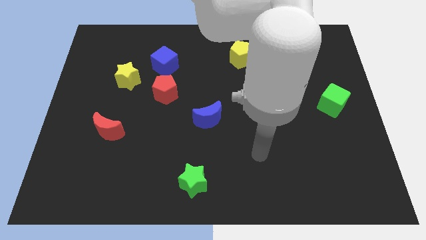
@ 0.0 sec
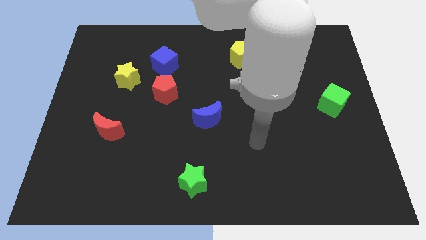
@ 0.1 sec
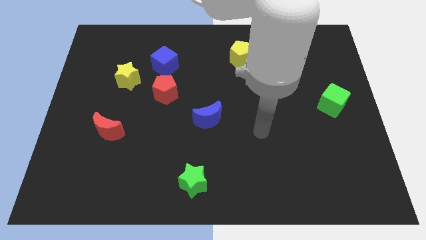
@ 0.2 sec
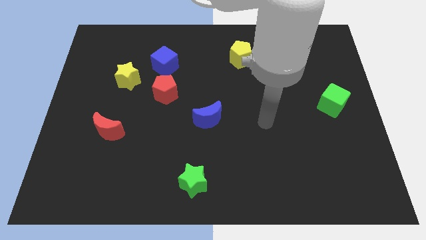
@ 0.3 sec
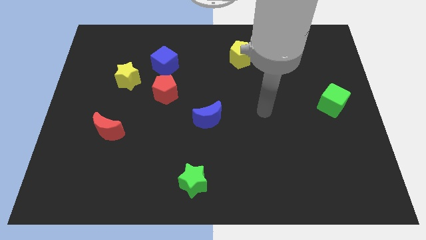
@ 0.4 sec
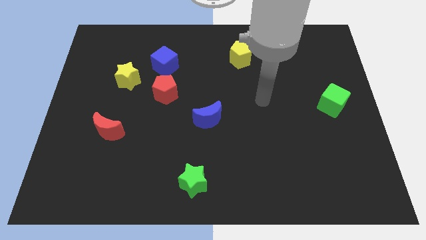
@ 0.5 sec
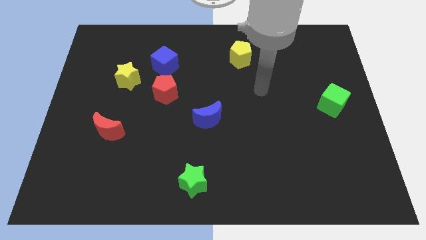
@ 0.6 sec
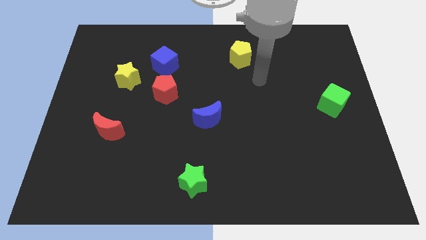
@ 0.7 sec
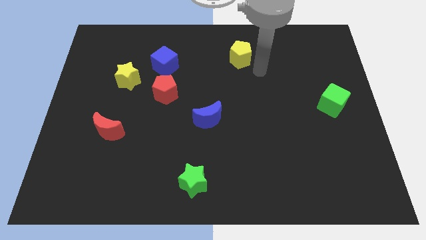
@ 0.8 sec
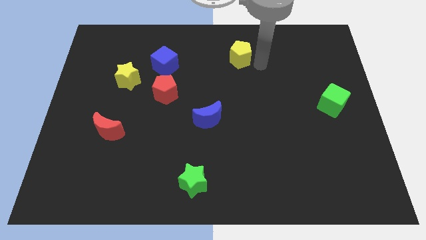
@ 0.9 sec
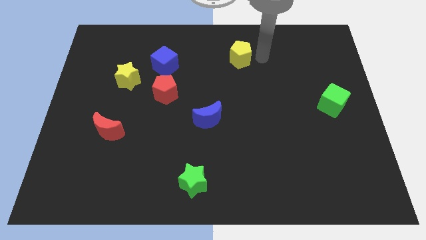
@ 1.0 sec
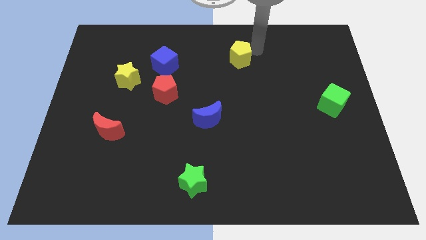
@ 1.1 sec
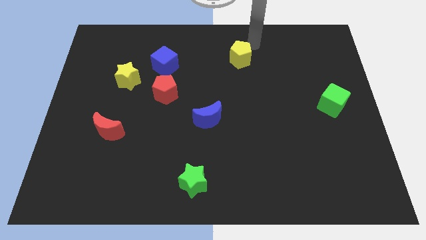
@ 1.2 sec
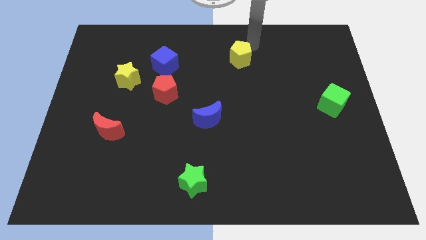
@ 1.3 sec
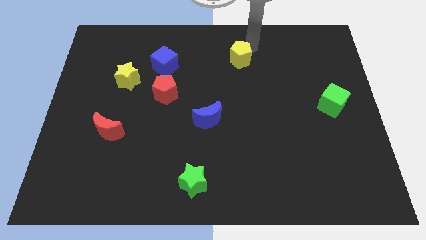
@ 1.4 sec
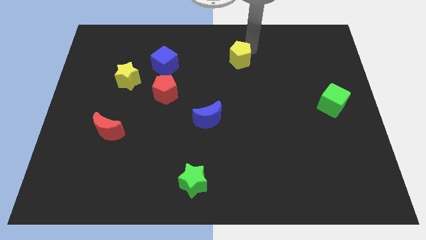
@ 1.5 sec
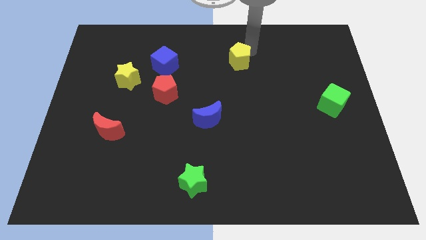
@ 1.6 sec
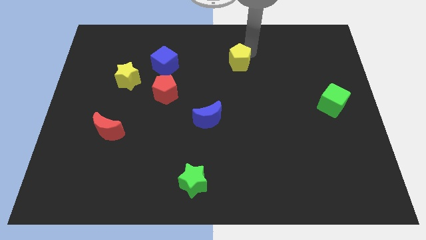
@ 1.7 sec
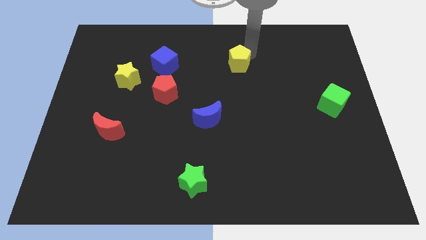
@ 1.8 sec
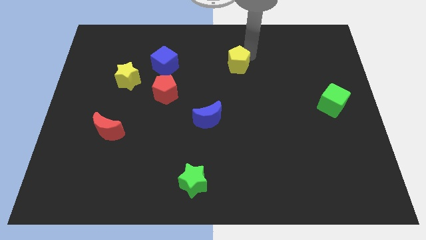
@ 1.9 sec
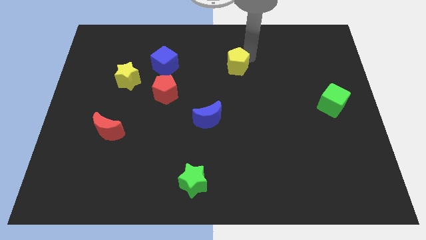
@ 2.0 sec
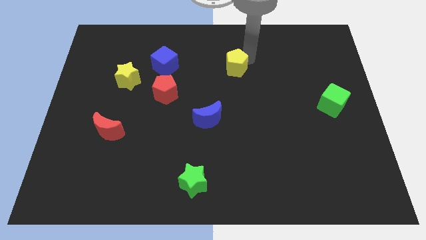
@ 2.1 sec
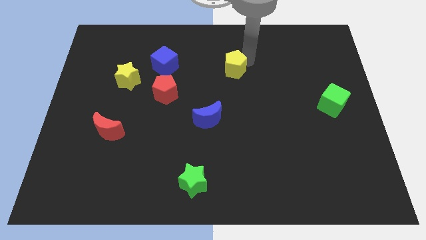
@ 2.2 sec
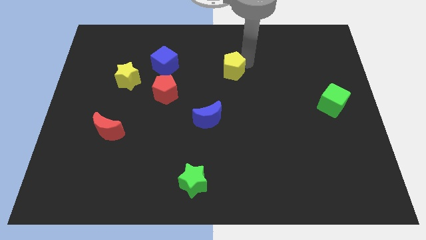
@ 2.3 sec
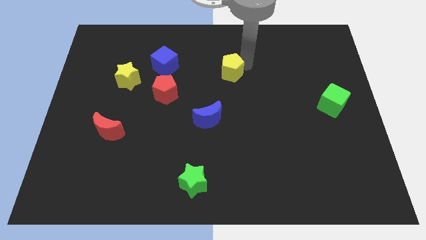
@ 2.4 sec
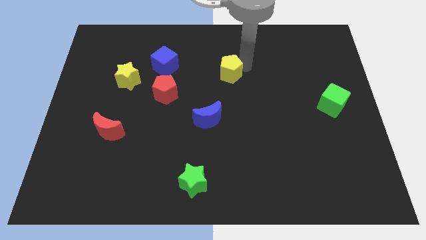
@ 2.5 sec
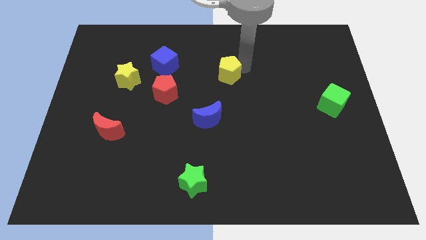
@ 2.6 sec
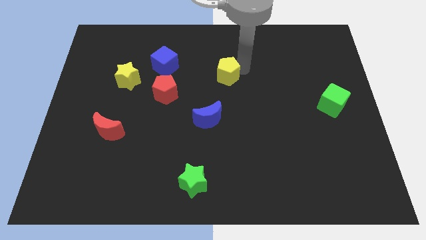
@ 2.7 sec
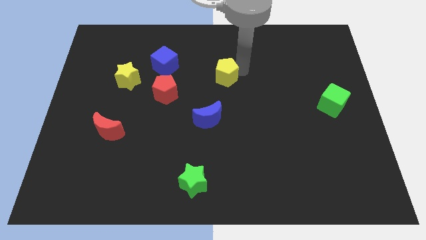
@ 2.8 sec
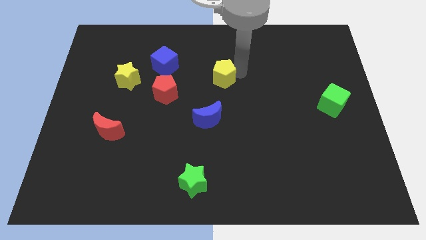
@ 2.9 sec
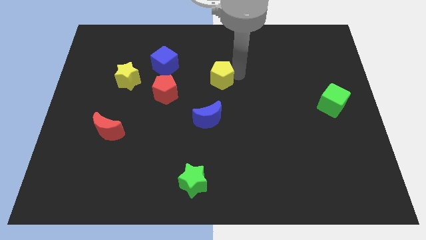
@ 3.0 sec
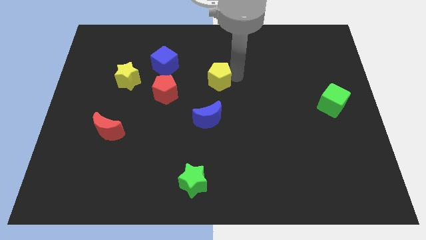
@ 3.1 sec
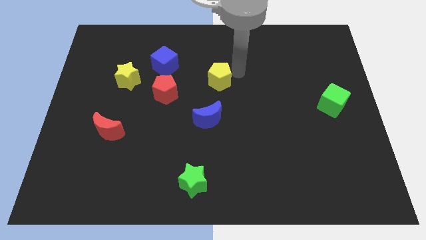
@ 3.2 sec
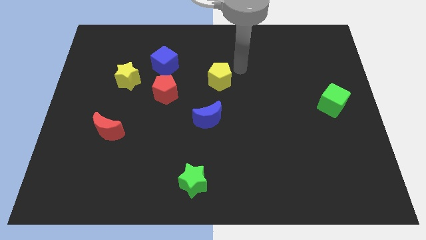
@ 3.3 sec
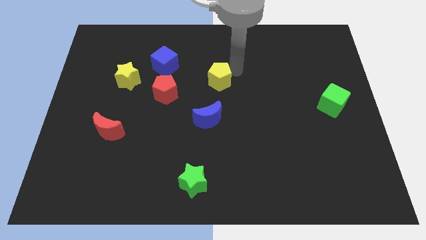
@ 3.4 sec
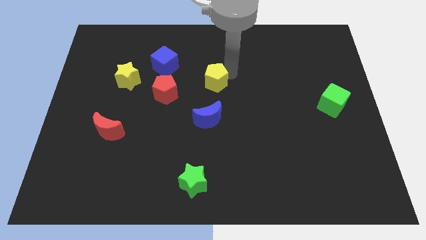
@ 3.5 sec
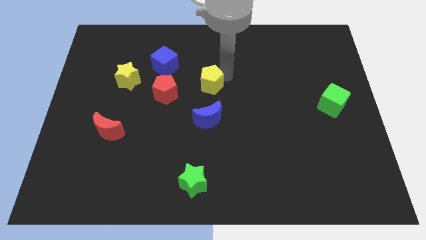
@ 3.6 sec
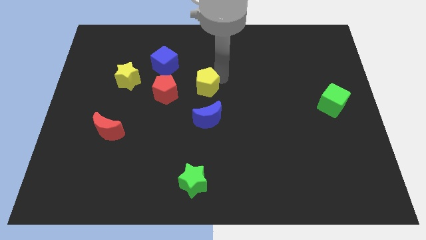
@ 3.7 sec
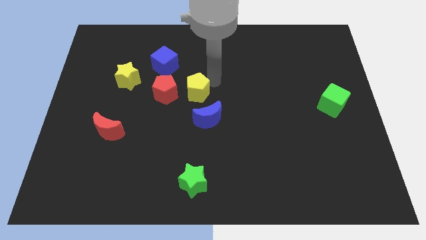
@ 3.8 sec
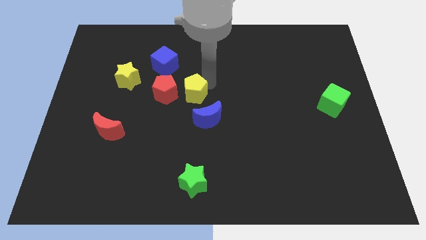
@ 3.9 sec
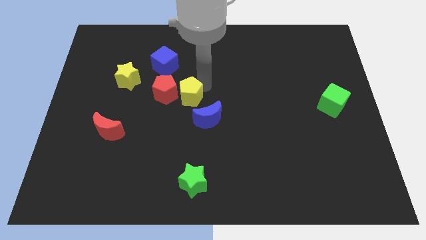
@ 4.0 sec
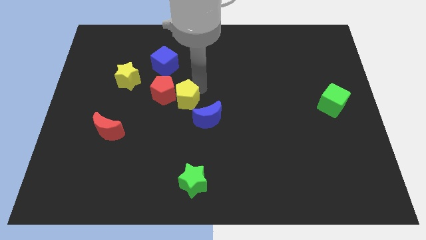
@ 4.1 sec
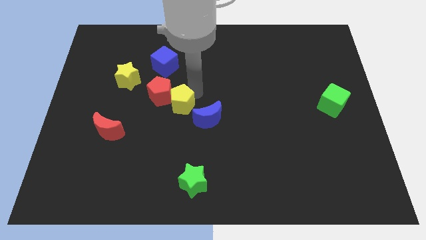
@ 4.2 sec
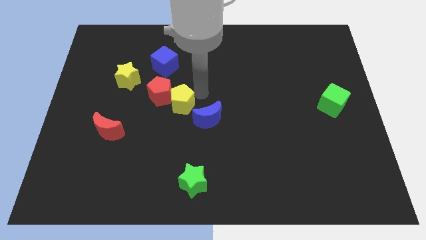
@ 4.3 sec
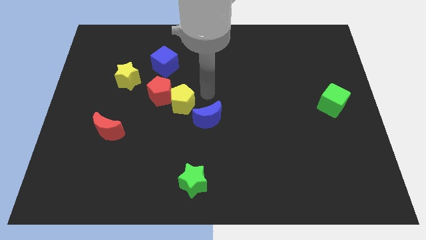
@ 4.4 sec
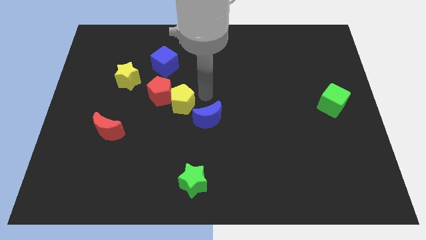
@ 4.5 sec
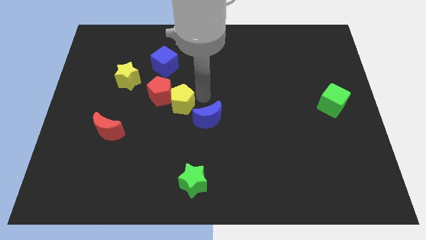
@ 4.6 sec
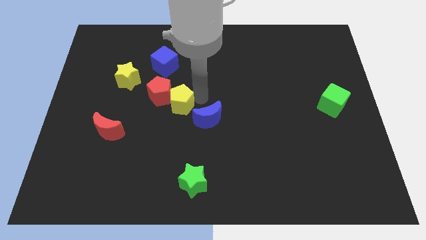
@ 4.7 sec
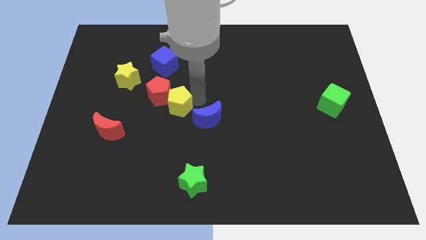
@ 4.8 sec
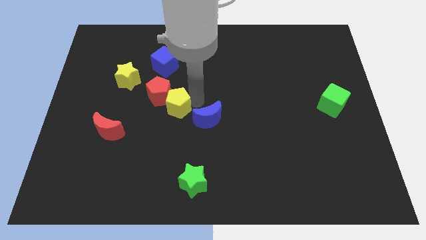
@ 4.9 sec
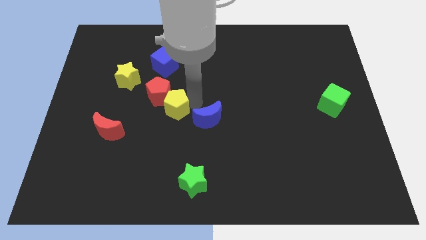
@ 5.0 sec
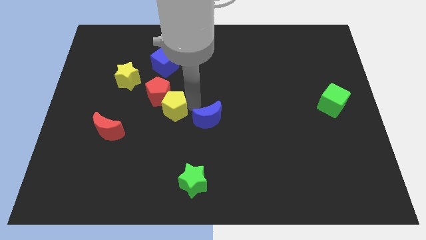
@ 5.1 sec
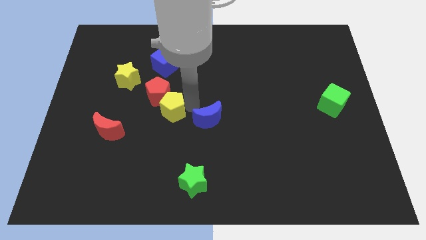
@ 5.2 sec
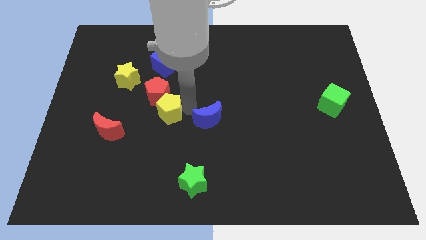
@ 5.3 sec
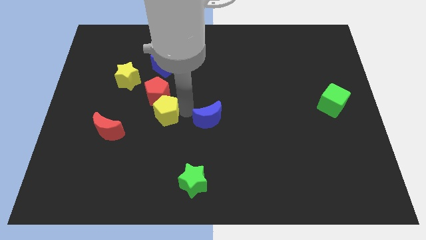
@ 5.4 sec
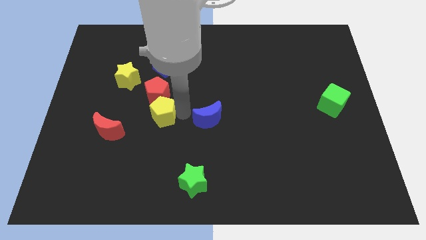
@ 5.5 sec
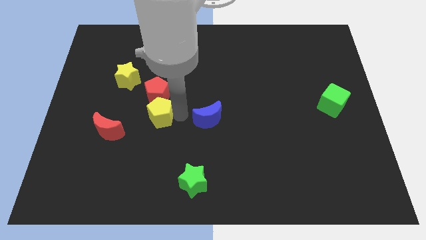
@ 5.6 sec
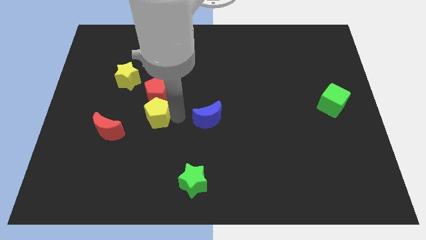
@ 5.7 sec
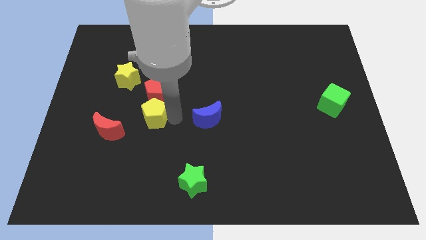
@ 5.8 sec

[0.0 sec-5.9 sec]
slide the yellow pentagon diagonally down and to the left of the red pentagon
